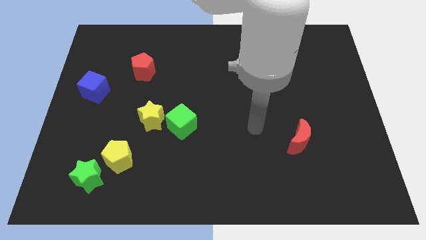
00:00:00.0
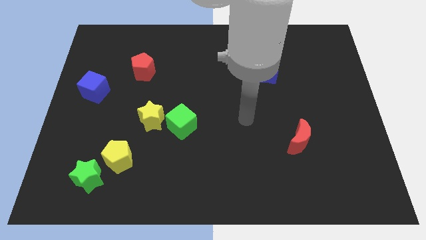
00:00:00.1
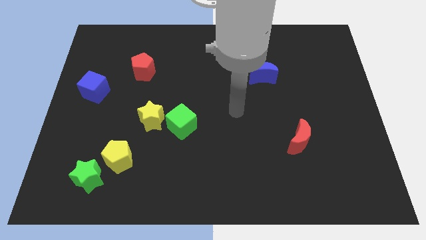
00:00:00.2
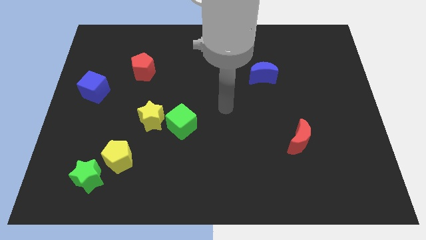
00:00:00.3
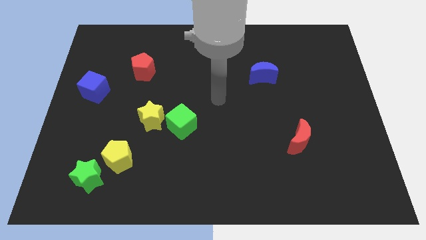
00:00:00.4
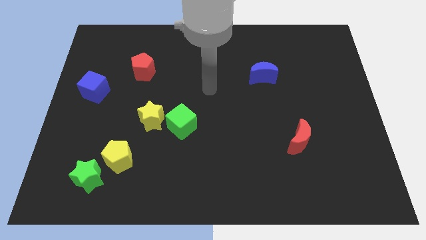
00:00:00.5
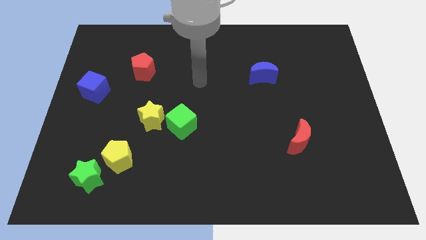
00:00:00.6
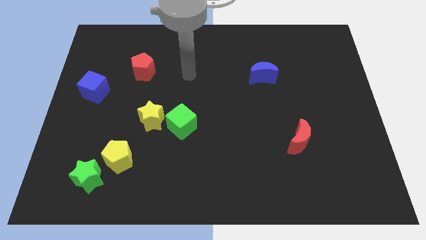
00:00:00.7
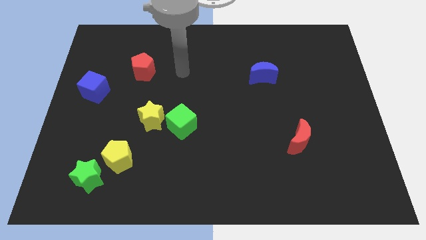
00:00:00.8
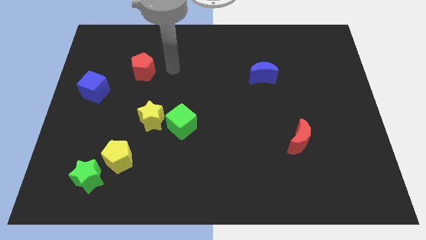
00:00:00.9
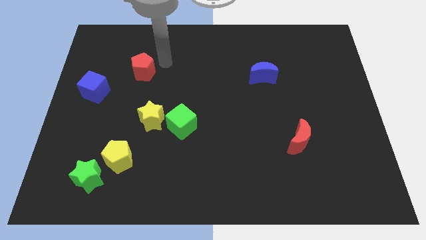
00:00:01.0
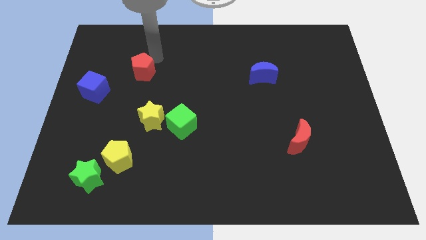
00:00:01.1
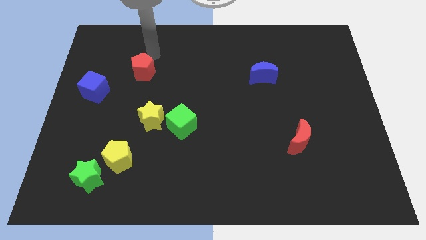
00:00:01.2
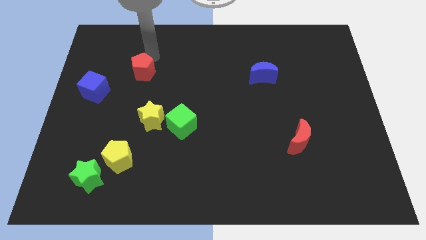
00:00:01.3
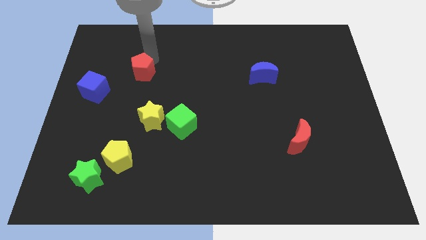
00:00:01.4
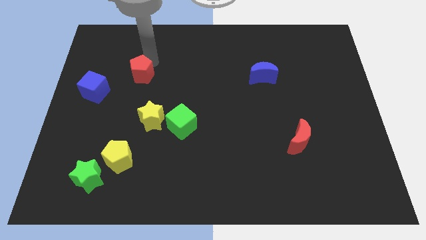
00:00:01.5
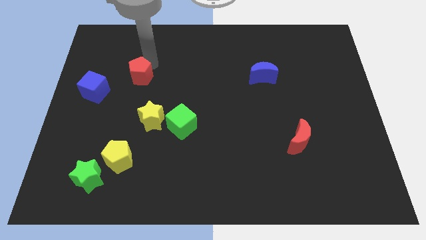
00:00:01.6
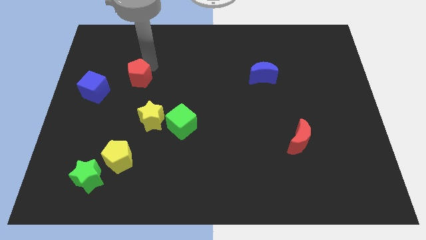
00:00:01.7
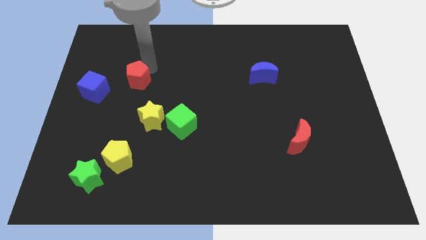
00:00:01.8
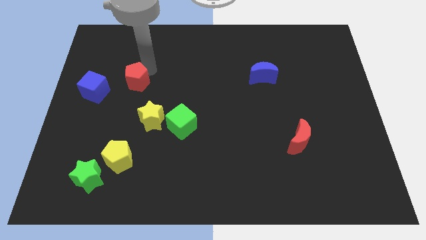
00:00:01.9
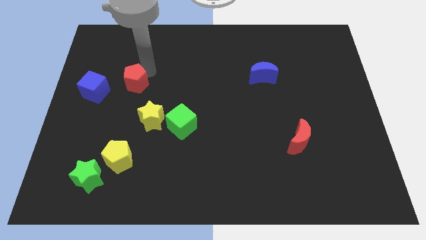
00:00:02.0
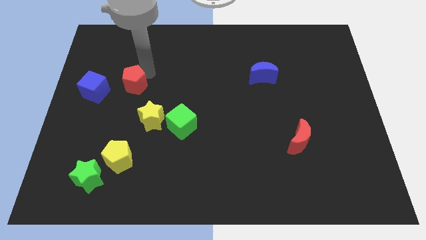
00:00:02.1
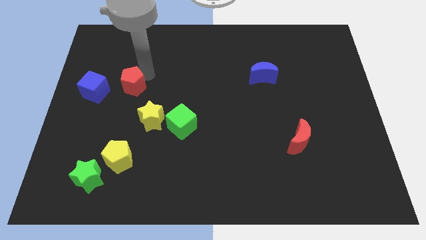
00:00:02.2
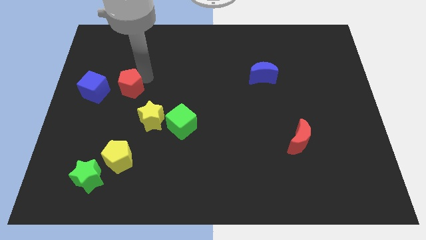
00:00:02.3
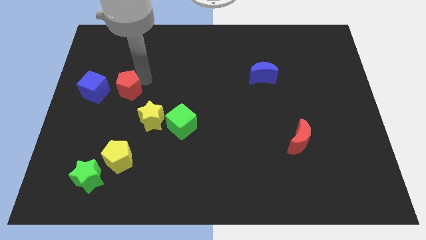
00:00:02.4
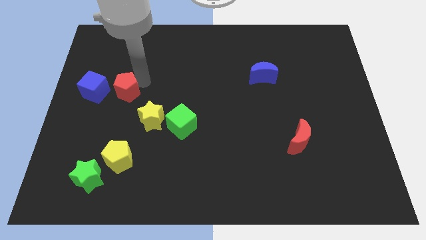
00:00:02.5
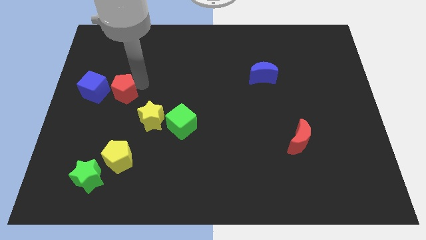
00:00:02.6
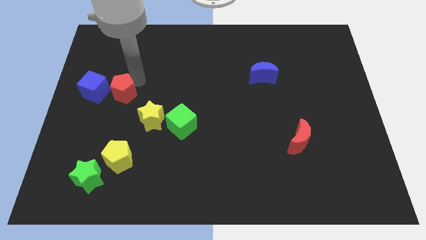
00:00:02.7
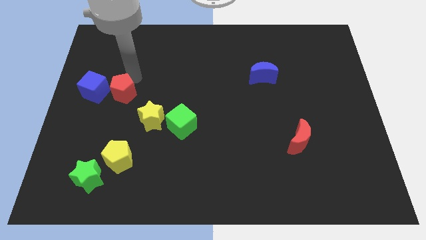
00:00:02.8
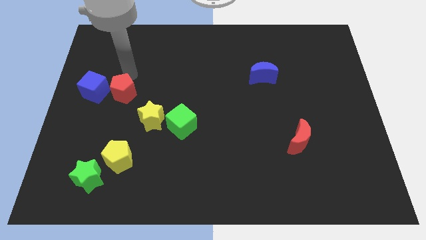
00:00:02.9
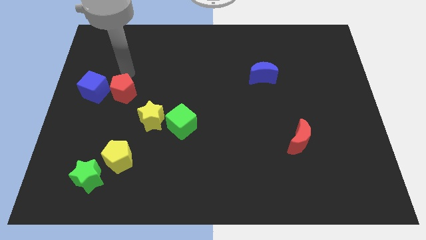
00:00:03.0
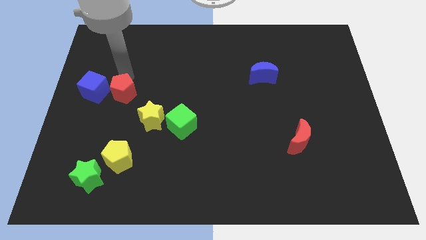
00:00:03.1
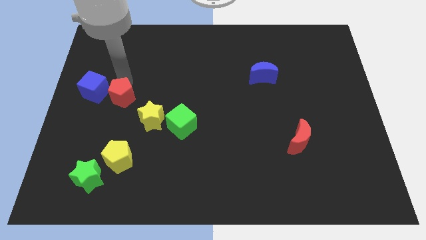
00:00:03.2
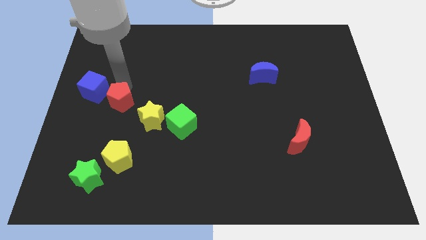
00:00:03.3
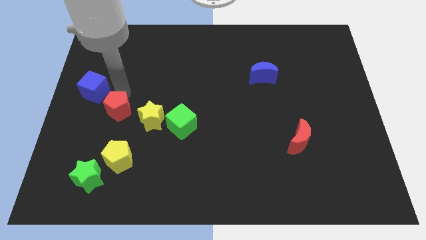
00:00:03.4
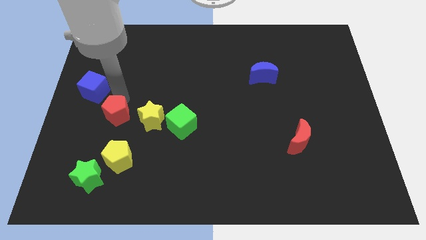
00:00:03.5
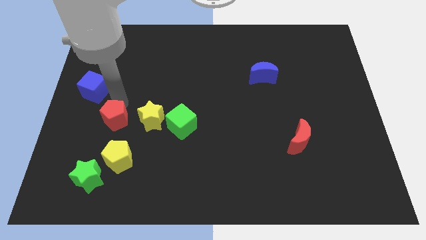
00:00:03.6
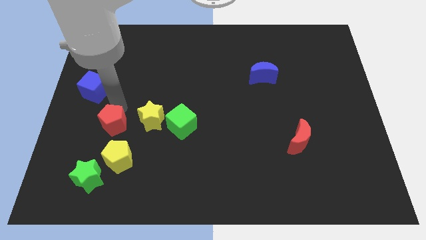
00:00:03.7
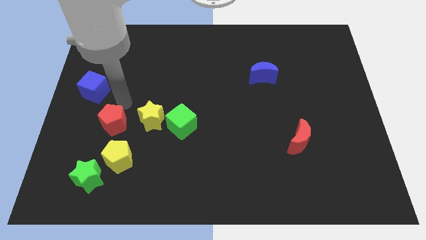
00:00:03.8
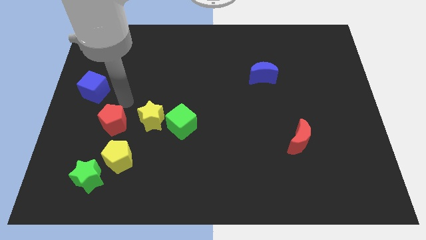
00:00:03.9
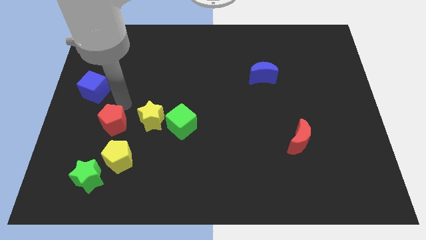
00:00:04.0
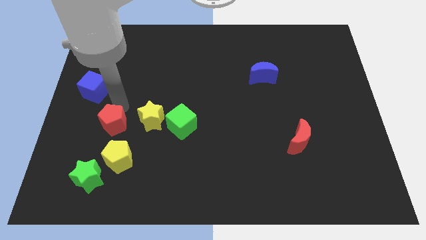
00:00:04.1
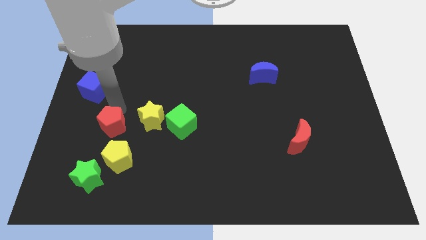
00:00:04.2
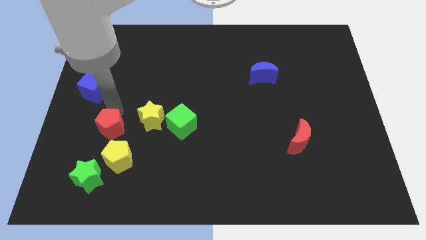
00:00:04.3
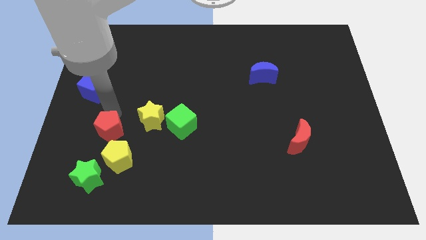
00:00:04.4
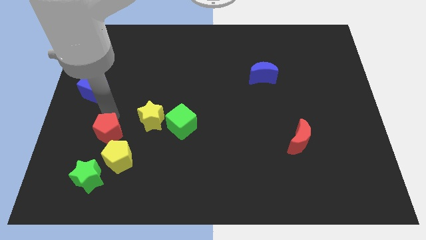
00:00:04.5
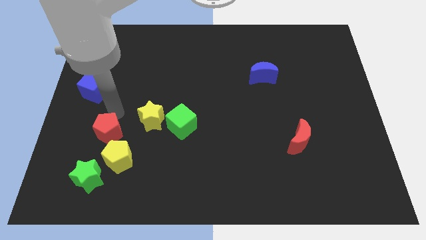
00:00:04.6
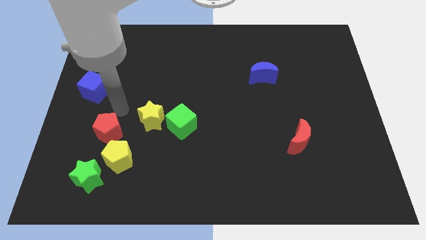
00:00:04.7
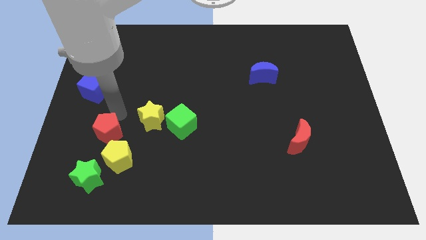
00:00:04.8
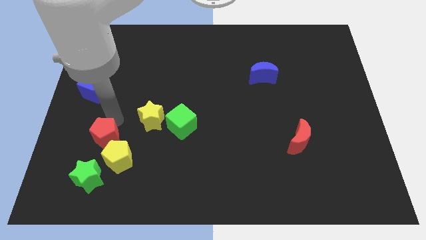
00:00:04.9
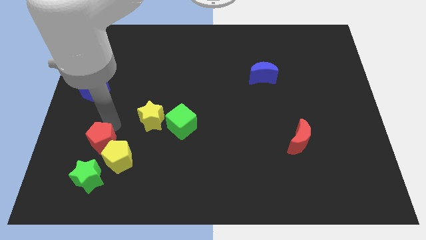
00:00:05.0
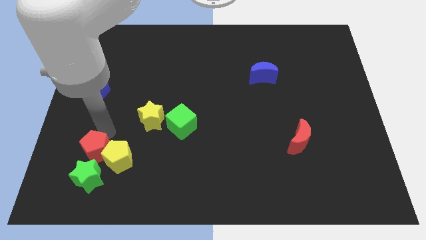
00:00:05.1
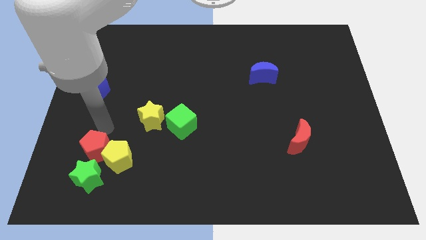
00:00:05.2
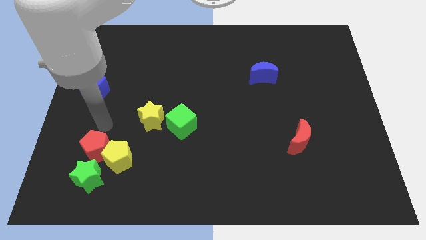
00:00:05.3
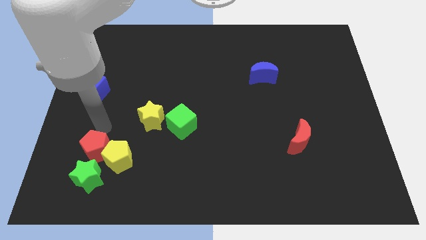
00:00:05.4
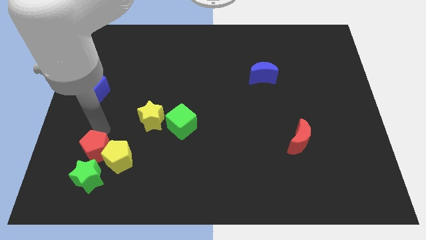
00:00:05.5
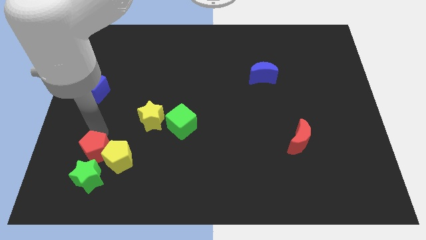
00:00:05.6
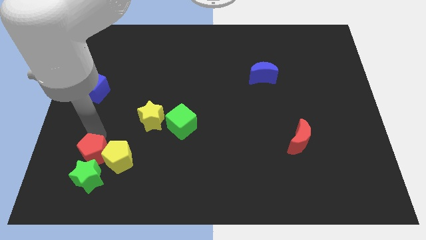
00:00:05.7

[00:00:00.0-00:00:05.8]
push the red pentagon towards the green star

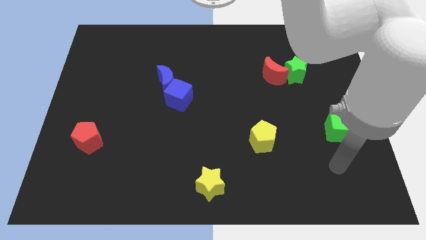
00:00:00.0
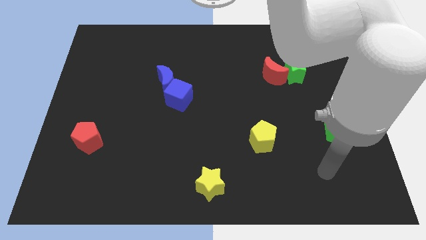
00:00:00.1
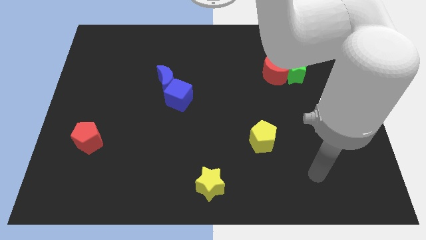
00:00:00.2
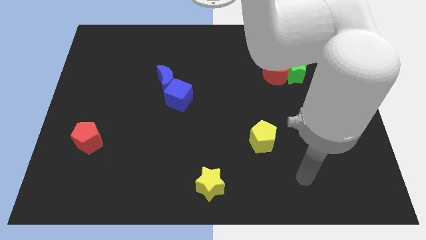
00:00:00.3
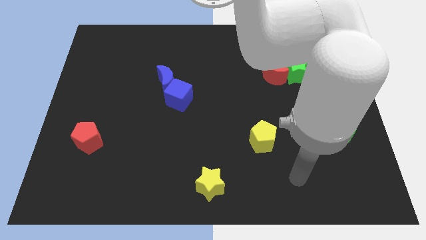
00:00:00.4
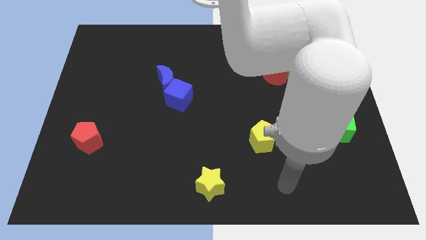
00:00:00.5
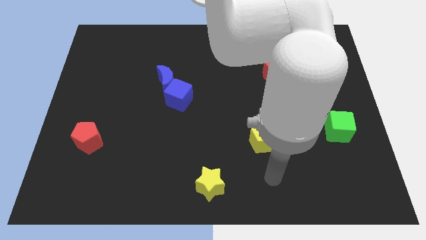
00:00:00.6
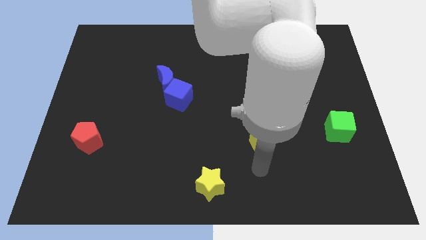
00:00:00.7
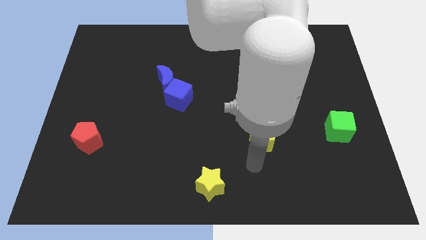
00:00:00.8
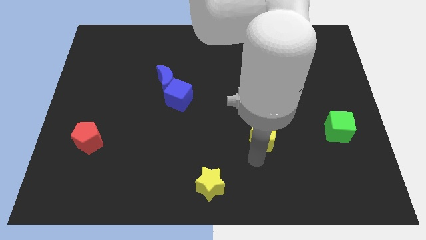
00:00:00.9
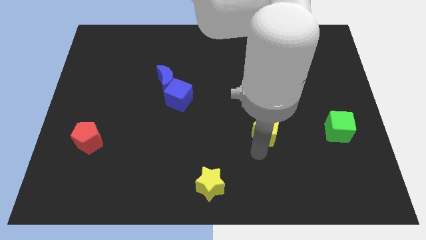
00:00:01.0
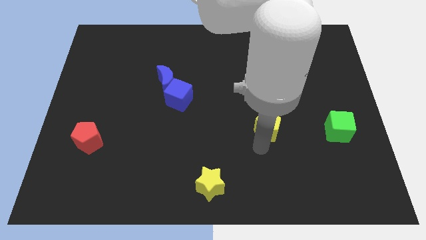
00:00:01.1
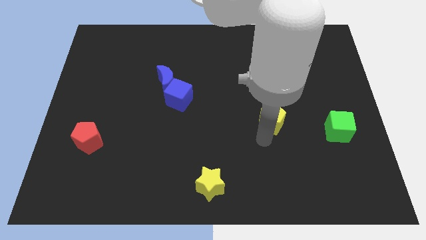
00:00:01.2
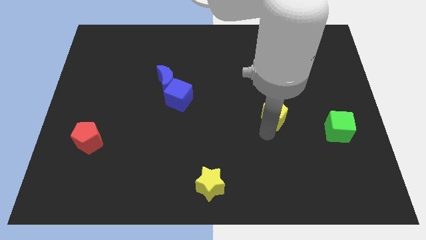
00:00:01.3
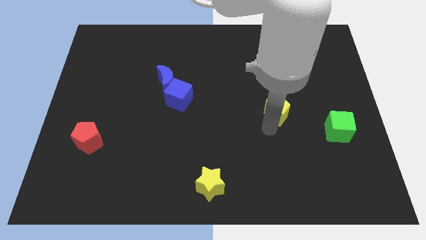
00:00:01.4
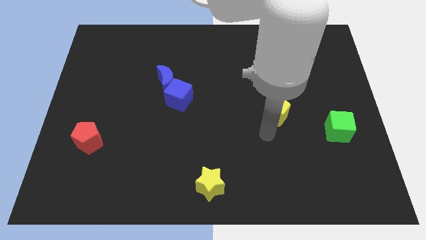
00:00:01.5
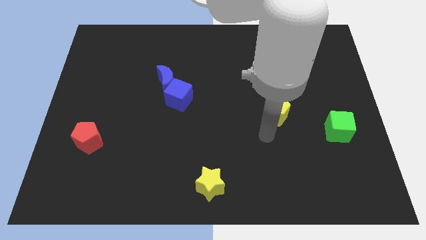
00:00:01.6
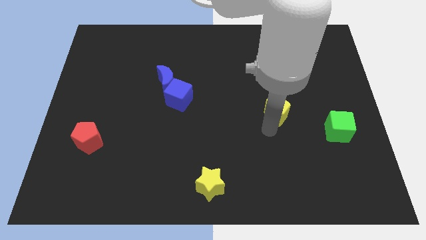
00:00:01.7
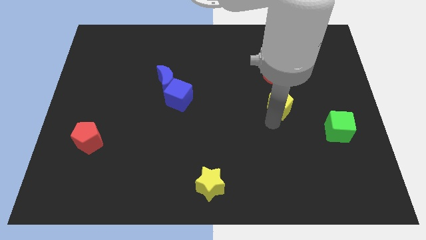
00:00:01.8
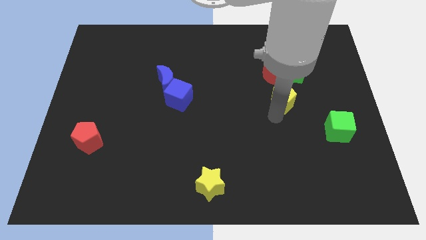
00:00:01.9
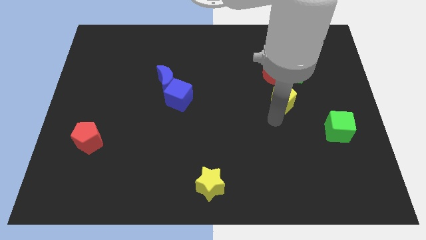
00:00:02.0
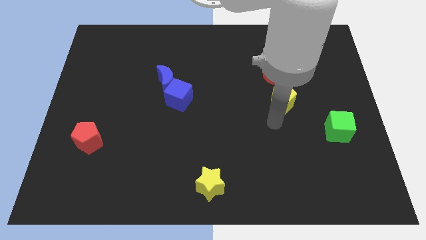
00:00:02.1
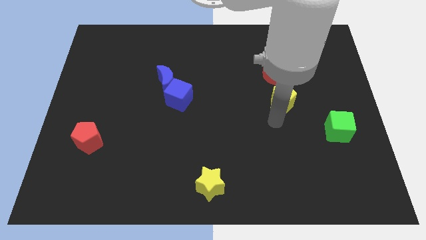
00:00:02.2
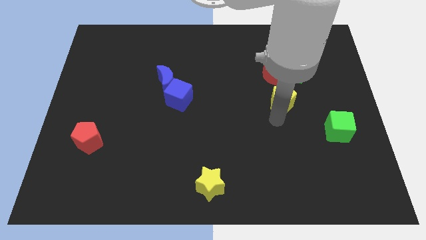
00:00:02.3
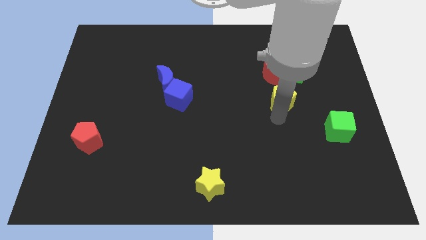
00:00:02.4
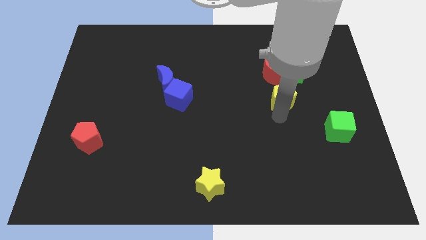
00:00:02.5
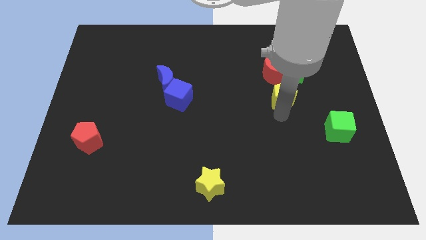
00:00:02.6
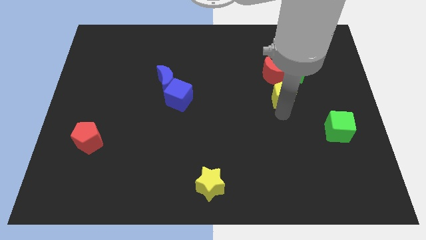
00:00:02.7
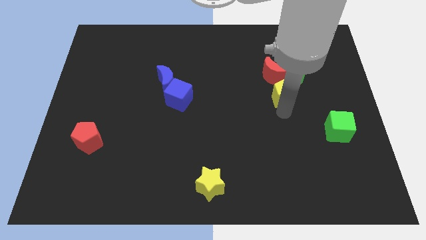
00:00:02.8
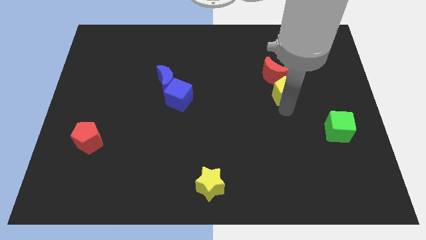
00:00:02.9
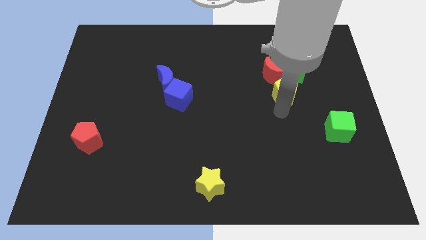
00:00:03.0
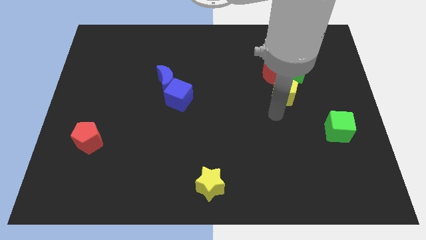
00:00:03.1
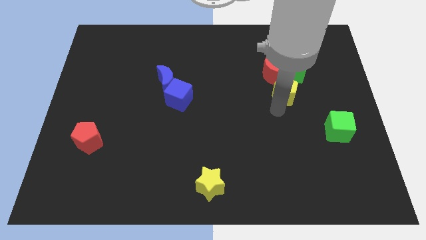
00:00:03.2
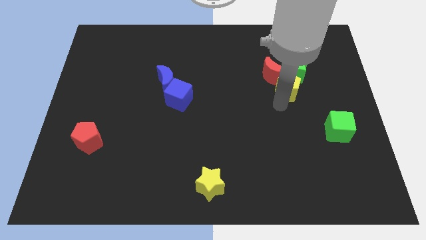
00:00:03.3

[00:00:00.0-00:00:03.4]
push the yellow pentagon to the green star
